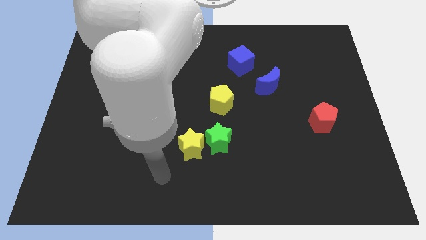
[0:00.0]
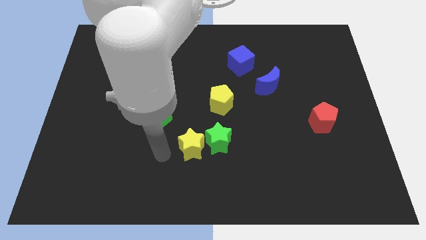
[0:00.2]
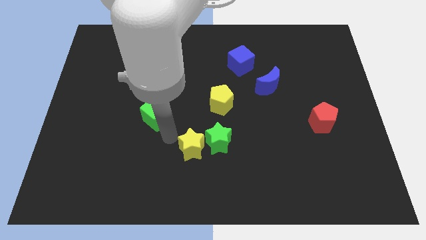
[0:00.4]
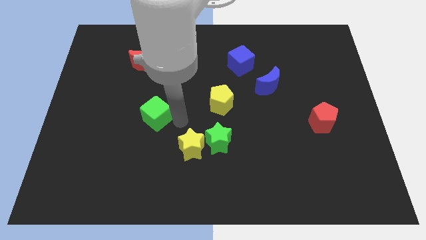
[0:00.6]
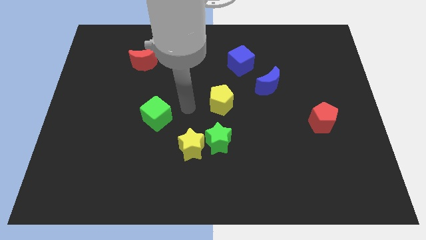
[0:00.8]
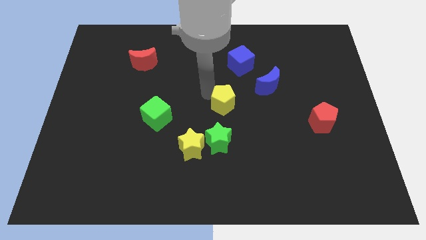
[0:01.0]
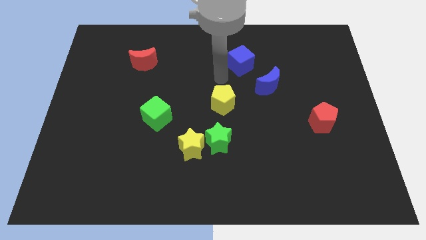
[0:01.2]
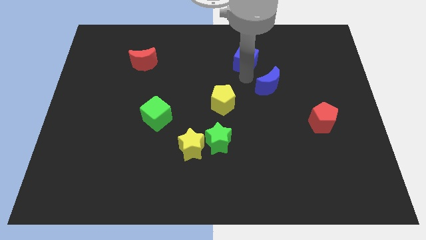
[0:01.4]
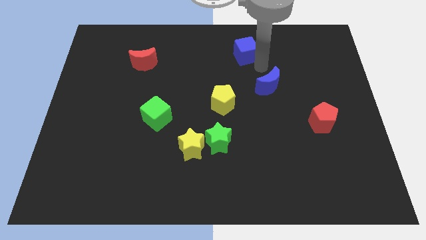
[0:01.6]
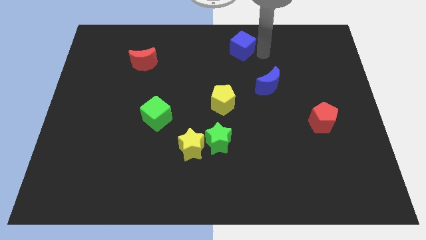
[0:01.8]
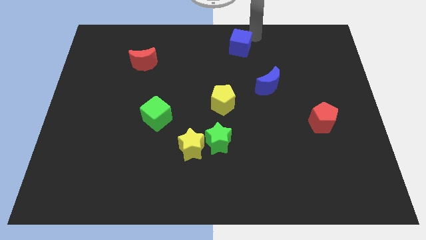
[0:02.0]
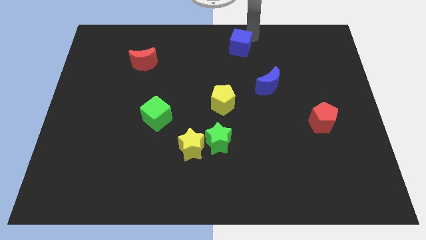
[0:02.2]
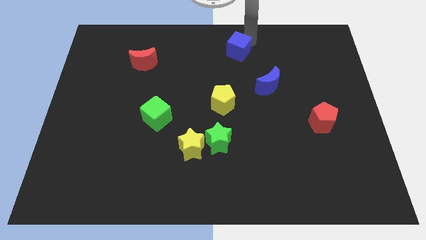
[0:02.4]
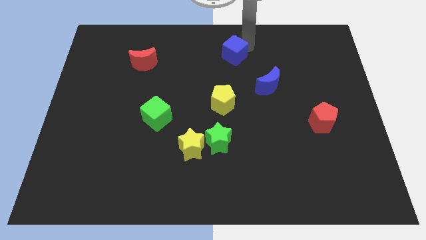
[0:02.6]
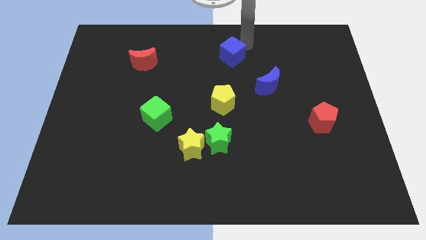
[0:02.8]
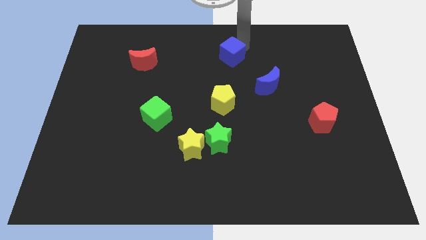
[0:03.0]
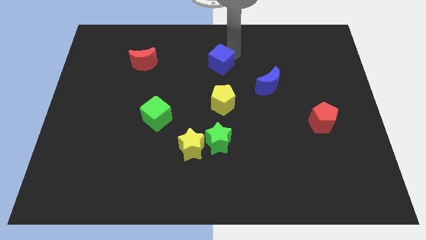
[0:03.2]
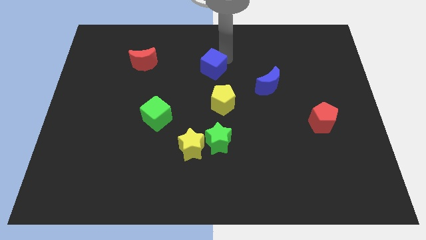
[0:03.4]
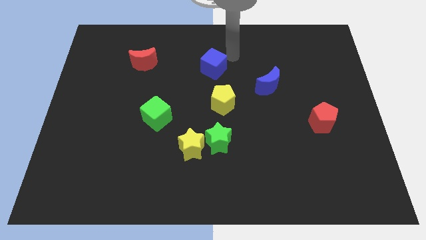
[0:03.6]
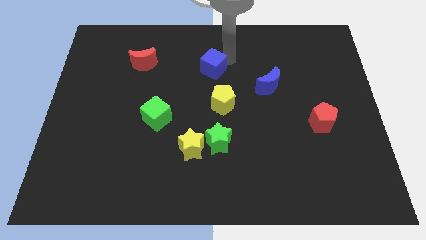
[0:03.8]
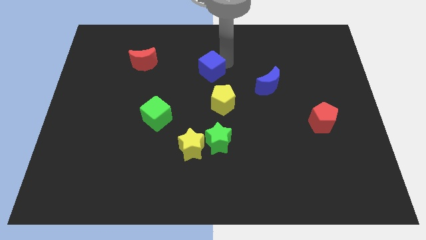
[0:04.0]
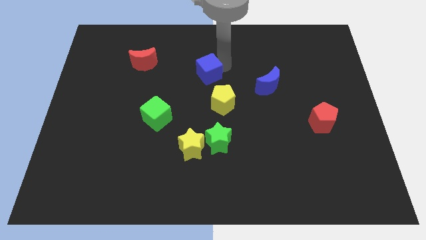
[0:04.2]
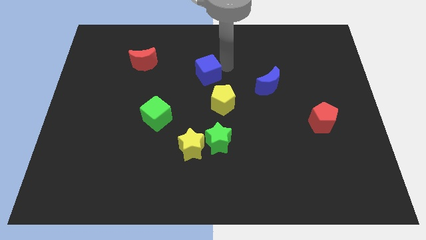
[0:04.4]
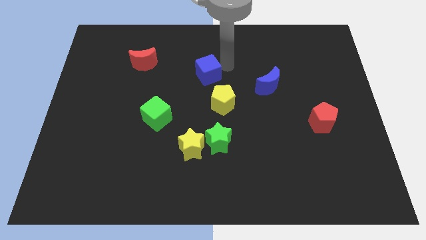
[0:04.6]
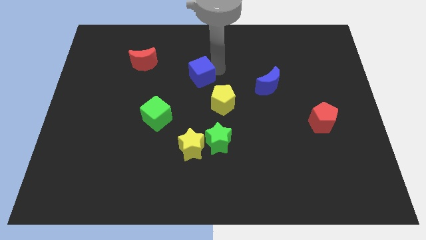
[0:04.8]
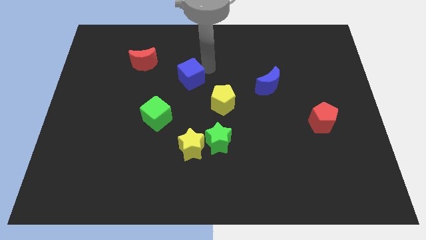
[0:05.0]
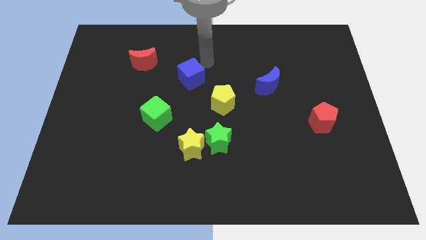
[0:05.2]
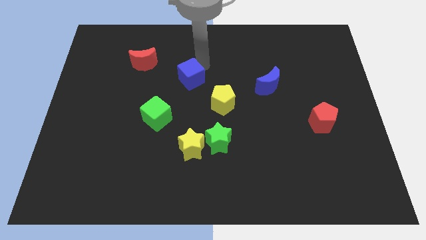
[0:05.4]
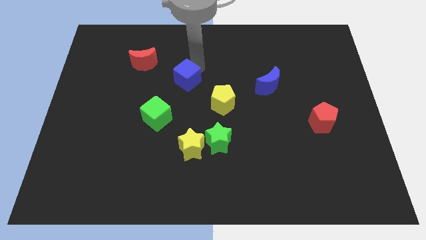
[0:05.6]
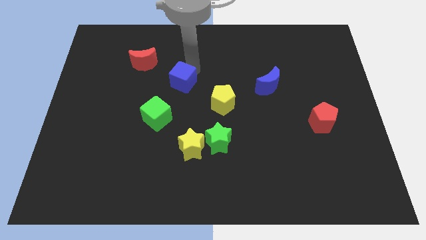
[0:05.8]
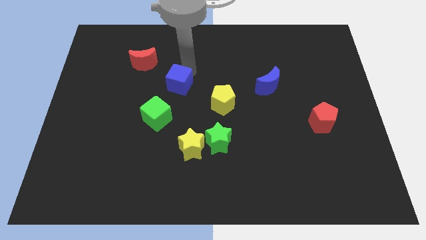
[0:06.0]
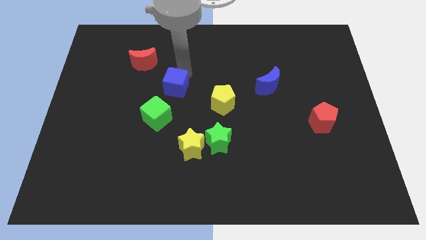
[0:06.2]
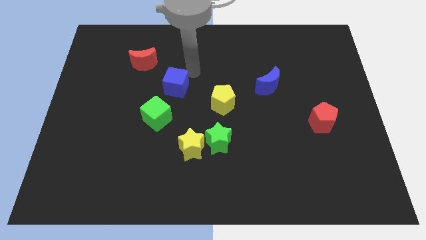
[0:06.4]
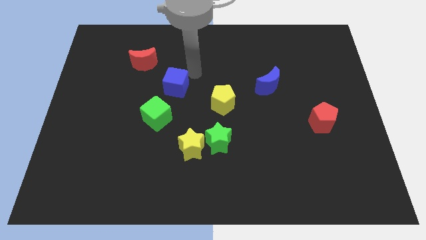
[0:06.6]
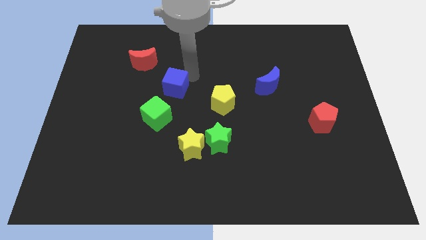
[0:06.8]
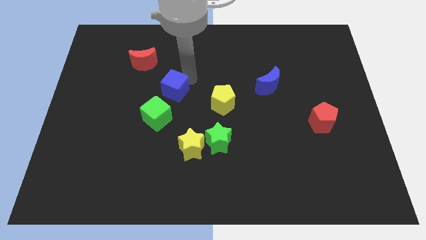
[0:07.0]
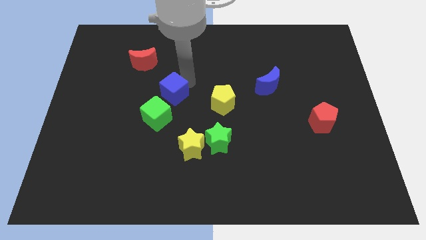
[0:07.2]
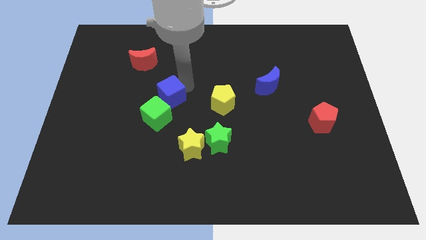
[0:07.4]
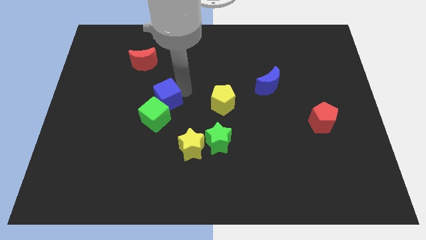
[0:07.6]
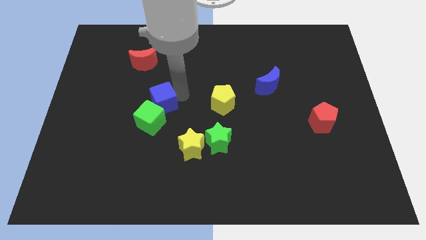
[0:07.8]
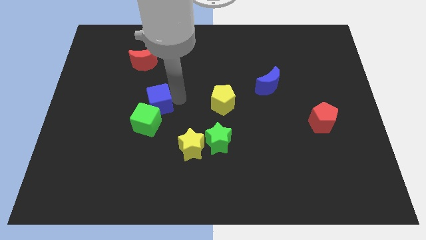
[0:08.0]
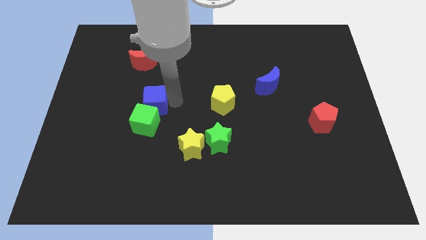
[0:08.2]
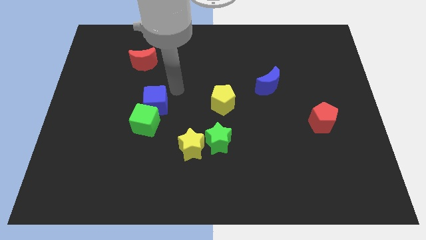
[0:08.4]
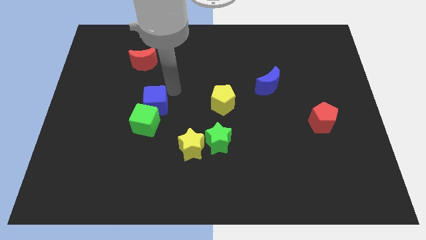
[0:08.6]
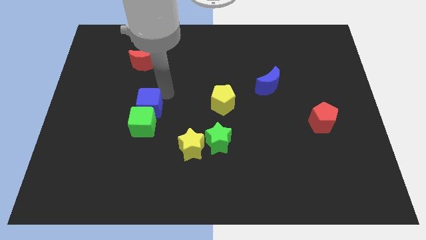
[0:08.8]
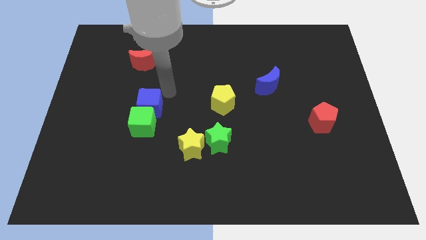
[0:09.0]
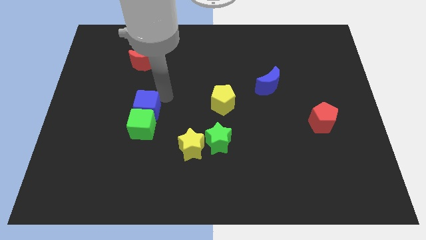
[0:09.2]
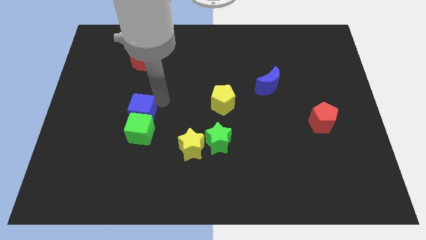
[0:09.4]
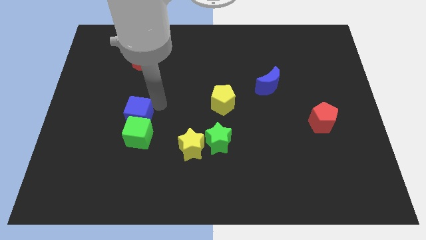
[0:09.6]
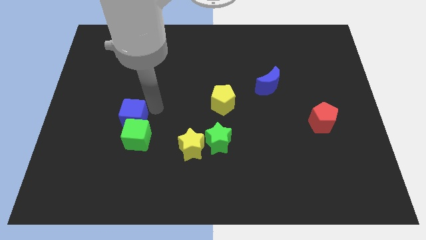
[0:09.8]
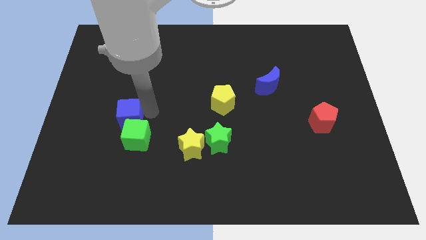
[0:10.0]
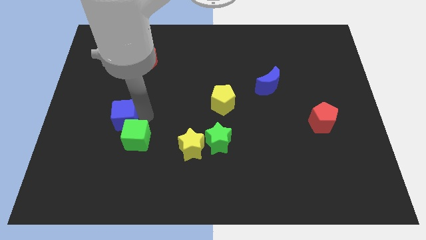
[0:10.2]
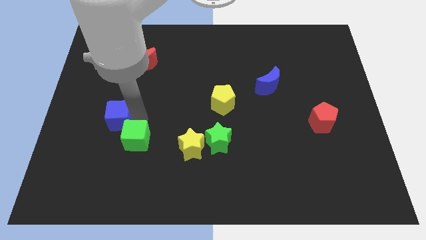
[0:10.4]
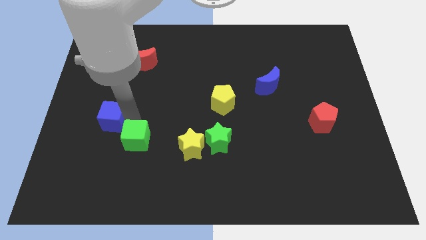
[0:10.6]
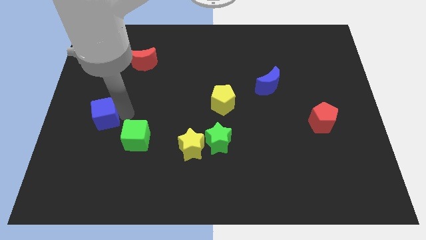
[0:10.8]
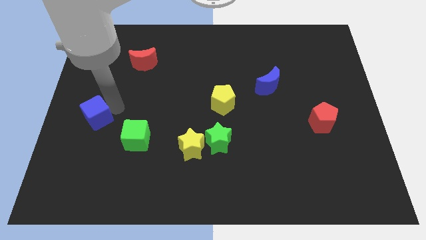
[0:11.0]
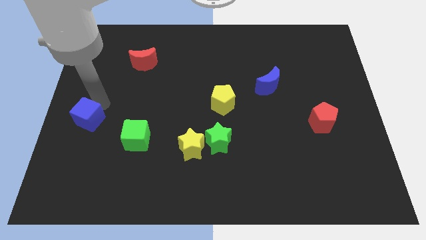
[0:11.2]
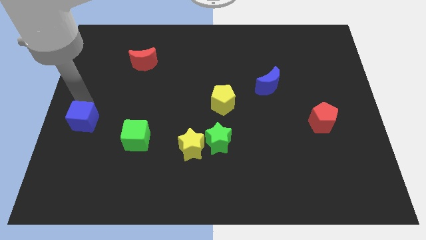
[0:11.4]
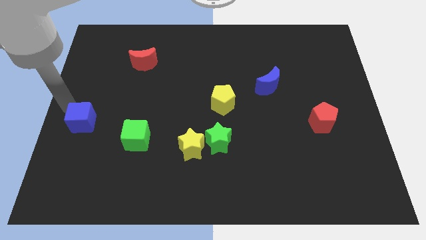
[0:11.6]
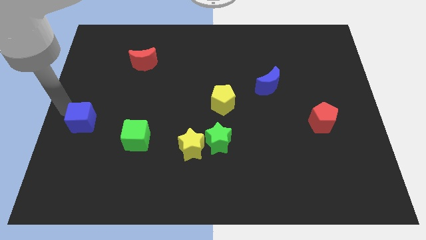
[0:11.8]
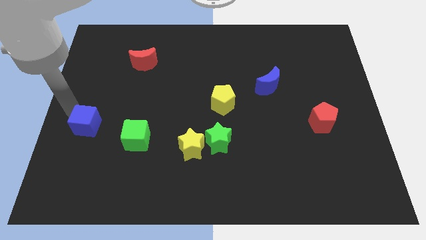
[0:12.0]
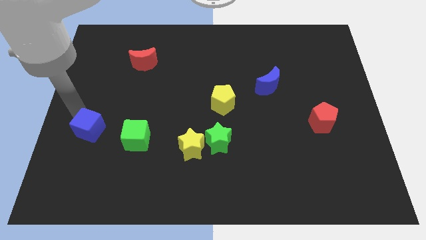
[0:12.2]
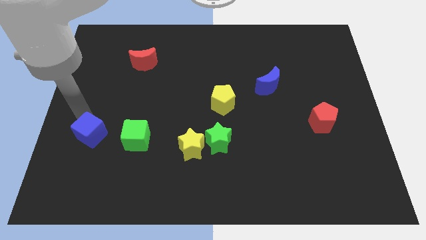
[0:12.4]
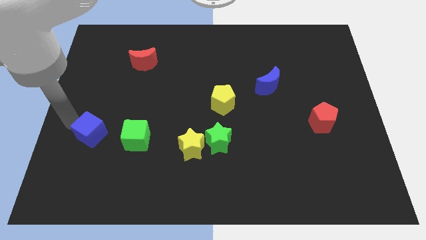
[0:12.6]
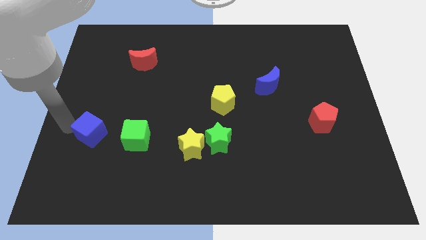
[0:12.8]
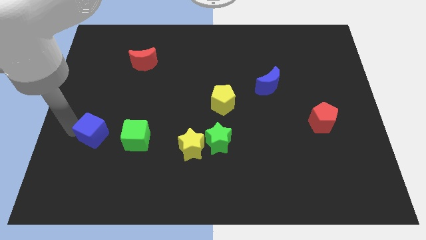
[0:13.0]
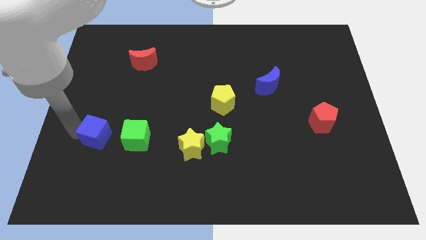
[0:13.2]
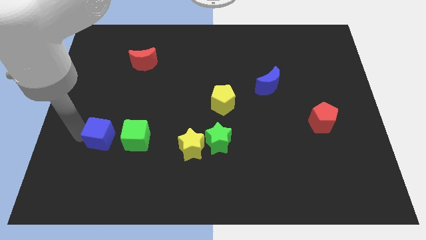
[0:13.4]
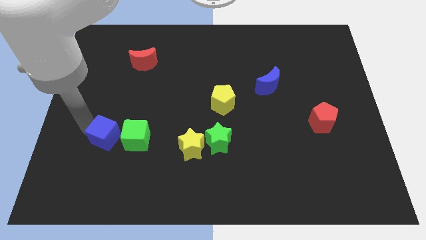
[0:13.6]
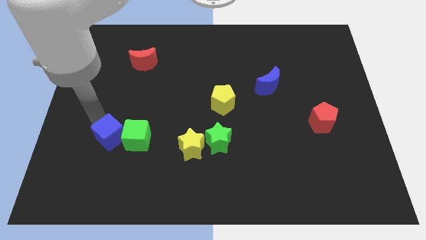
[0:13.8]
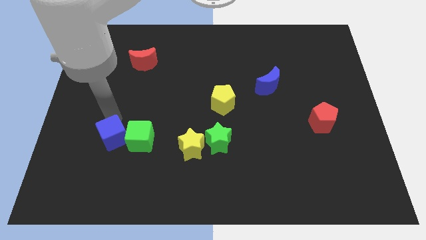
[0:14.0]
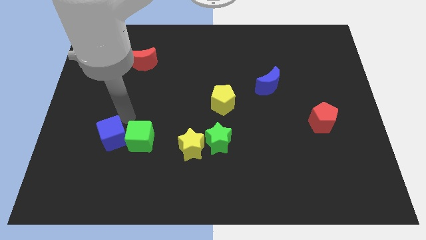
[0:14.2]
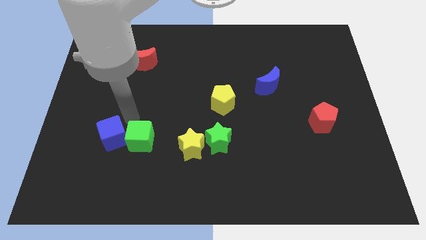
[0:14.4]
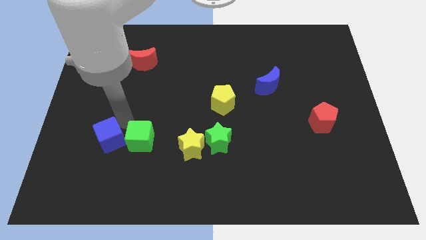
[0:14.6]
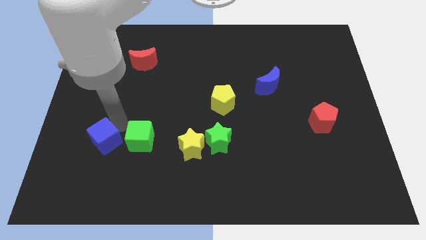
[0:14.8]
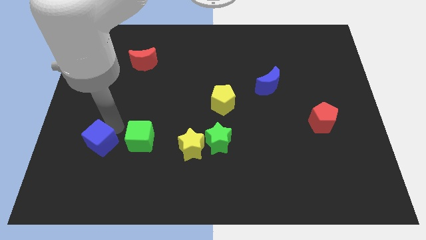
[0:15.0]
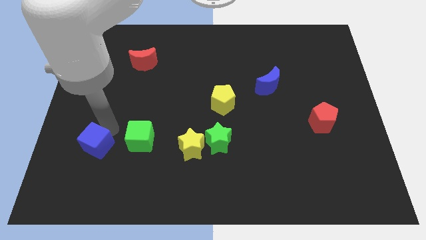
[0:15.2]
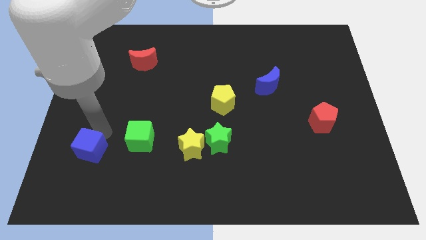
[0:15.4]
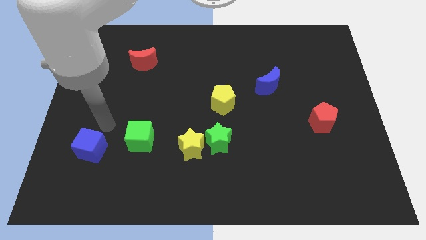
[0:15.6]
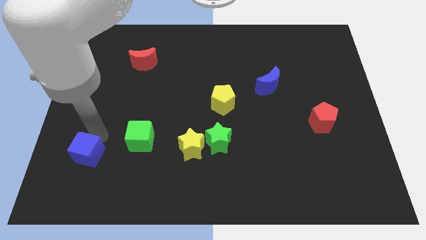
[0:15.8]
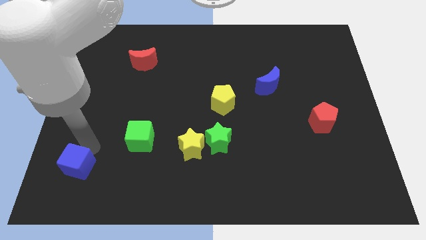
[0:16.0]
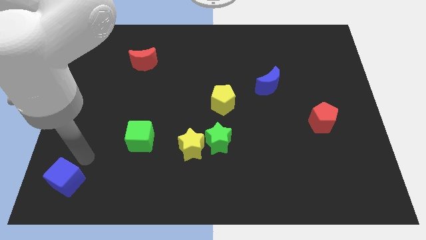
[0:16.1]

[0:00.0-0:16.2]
move the blue cube to the lower left corner
